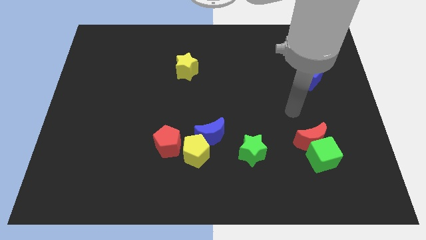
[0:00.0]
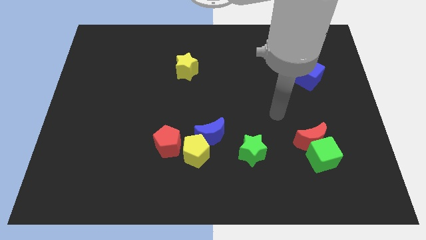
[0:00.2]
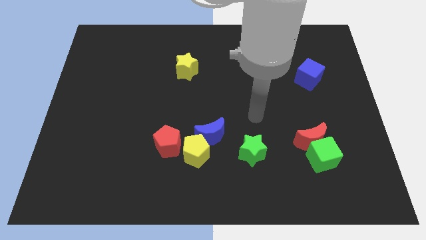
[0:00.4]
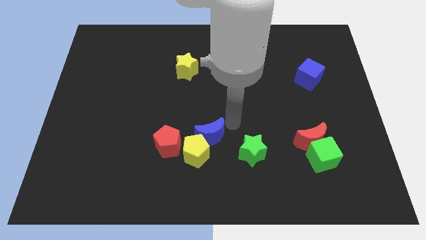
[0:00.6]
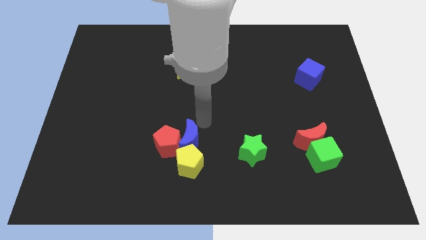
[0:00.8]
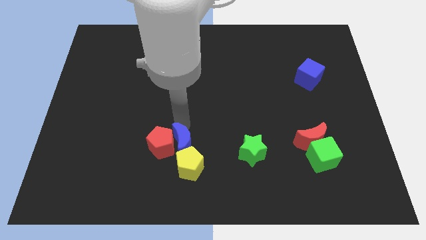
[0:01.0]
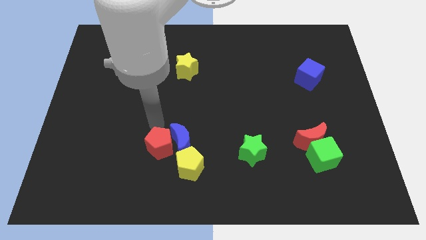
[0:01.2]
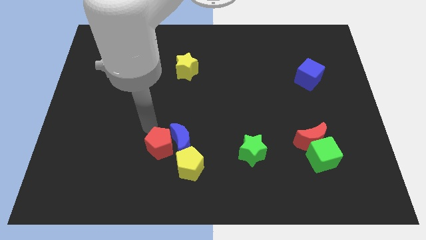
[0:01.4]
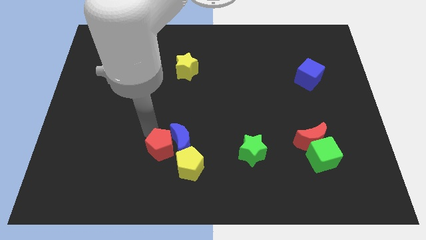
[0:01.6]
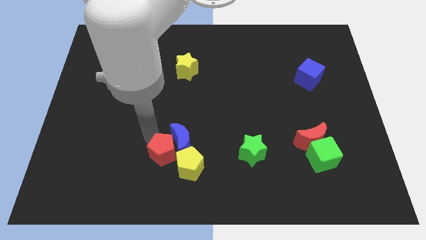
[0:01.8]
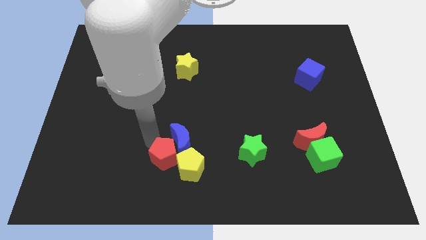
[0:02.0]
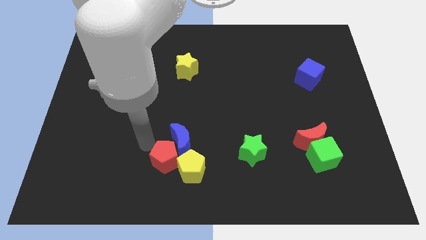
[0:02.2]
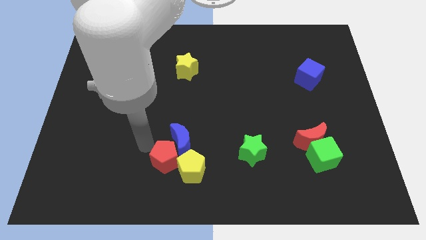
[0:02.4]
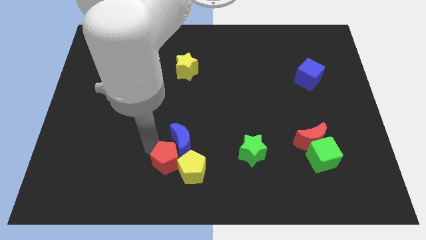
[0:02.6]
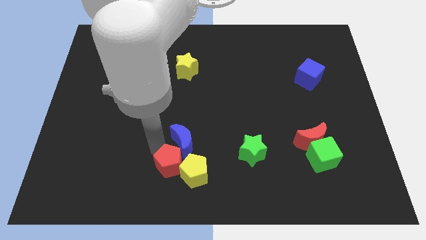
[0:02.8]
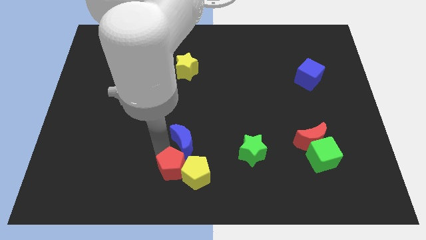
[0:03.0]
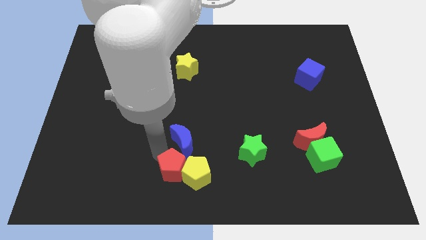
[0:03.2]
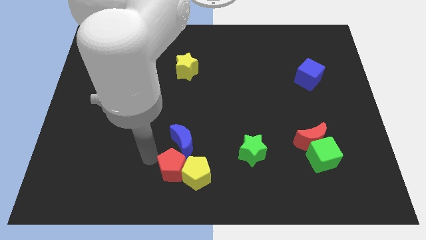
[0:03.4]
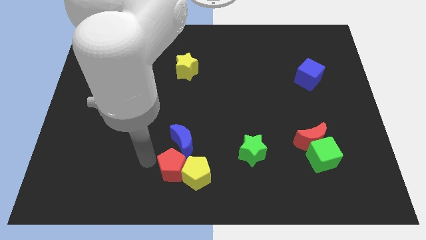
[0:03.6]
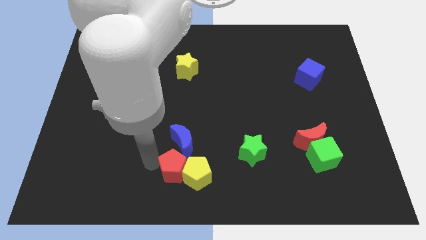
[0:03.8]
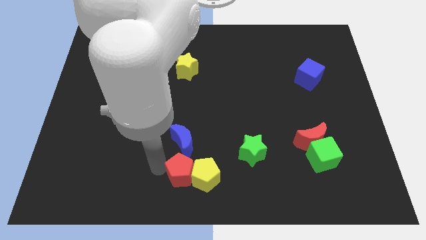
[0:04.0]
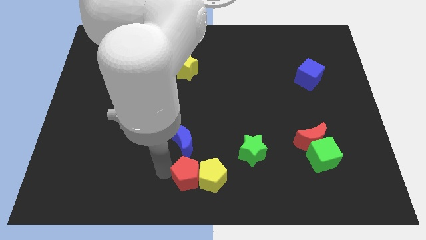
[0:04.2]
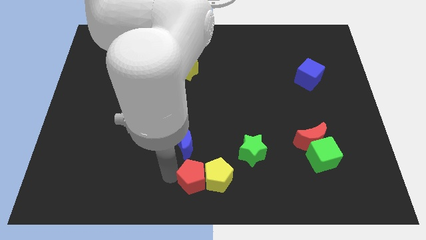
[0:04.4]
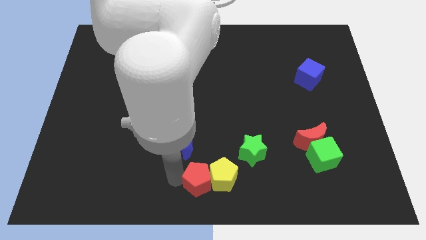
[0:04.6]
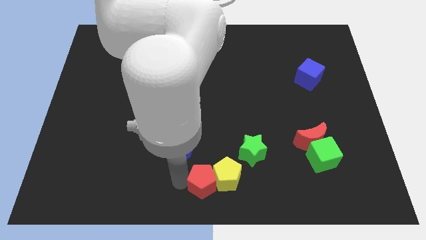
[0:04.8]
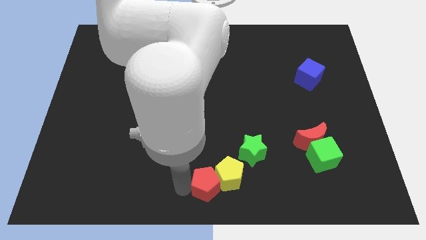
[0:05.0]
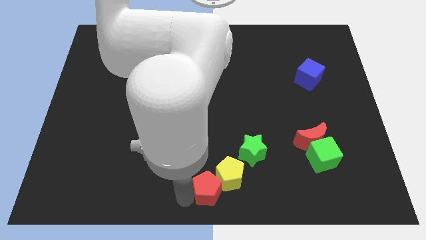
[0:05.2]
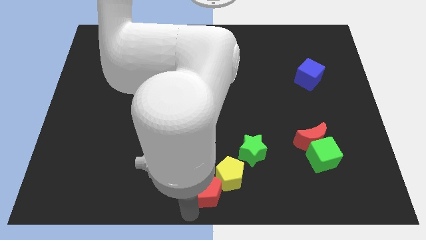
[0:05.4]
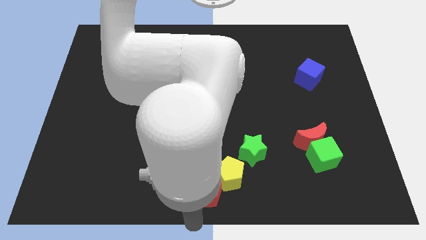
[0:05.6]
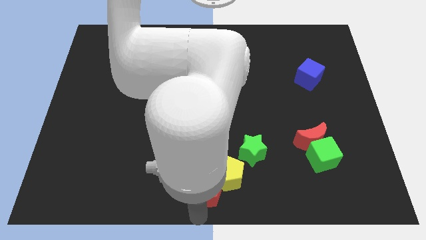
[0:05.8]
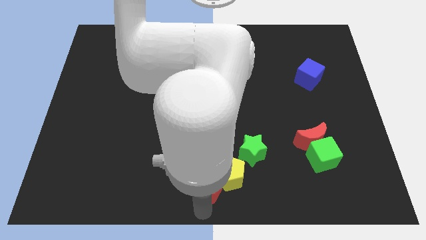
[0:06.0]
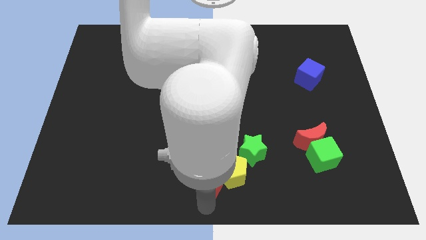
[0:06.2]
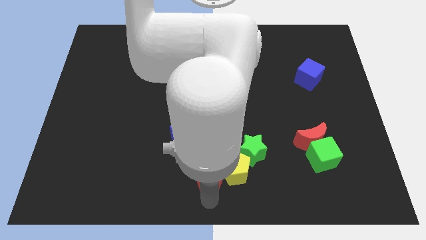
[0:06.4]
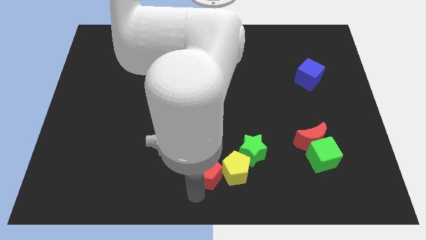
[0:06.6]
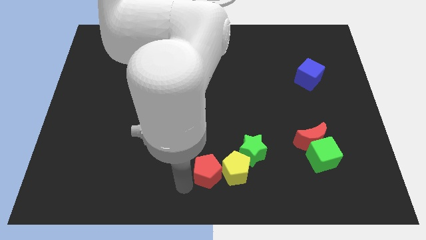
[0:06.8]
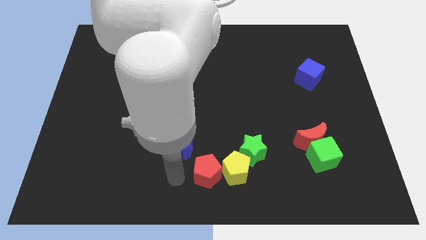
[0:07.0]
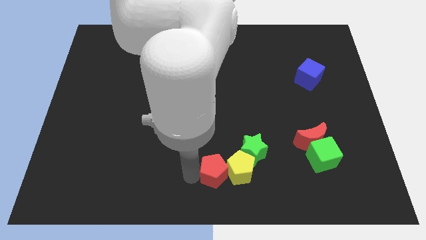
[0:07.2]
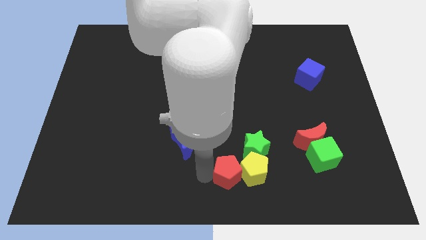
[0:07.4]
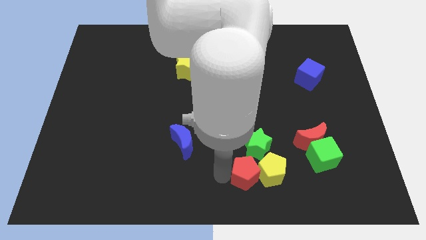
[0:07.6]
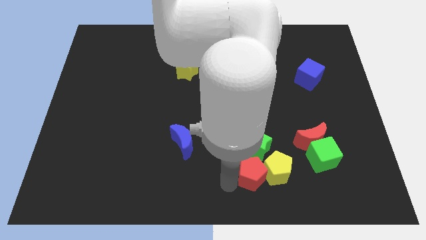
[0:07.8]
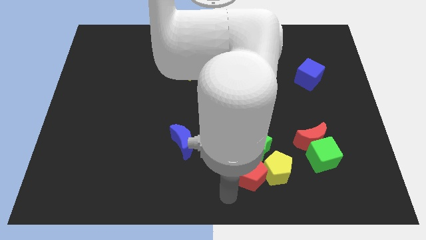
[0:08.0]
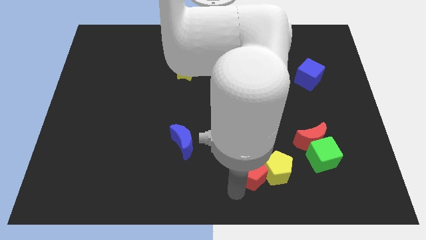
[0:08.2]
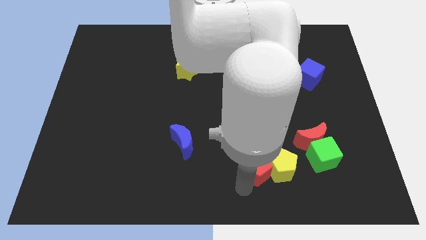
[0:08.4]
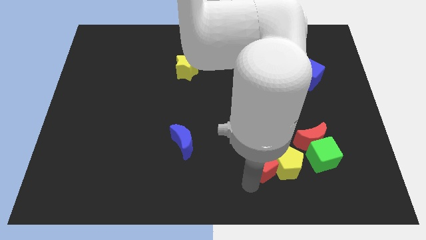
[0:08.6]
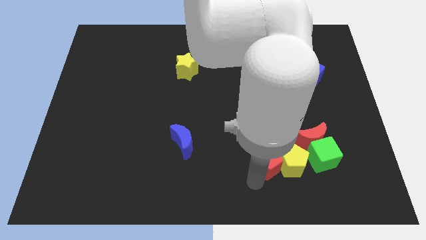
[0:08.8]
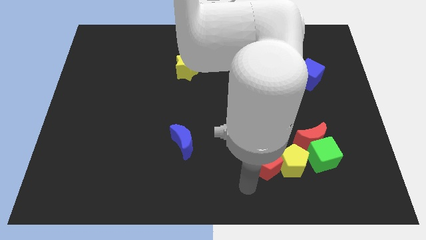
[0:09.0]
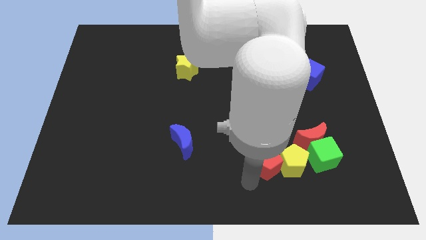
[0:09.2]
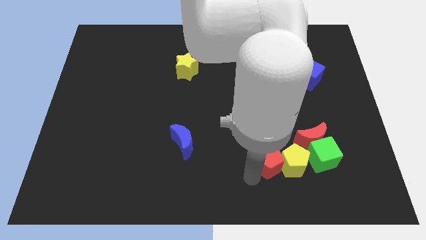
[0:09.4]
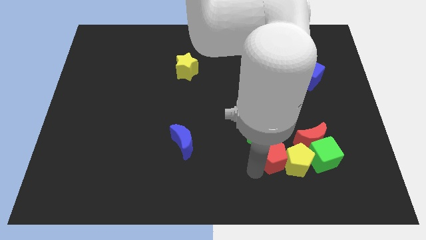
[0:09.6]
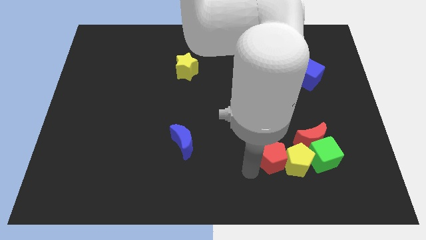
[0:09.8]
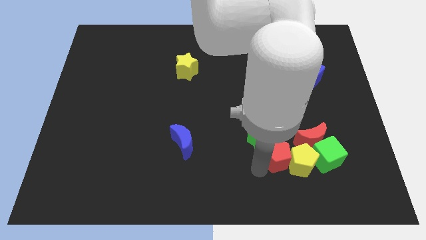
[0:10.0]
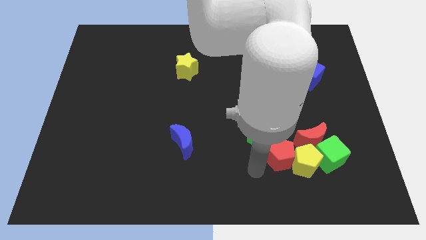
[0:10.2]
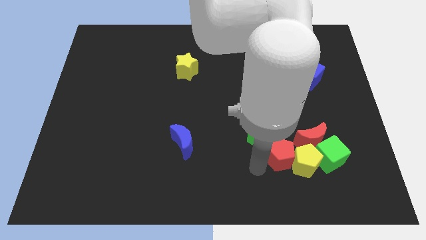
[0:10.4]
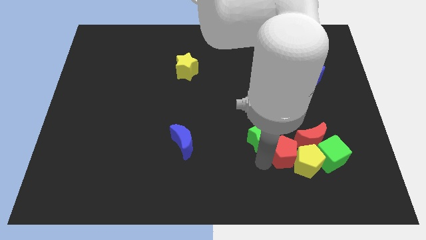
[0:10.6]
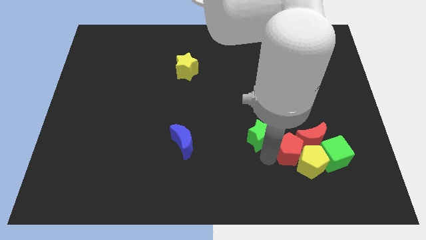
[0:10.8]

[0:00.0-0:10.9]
move the red pentagon to the red moon

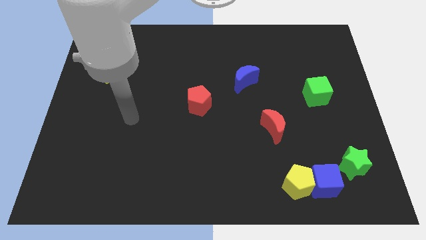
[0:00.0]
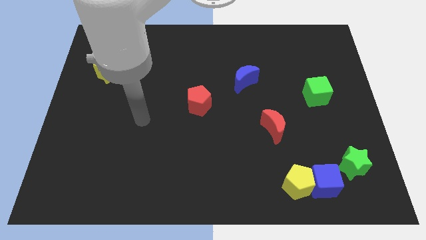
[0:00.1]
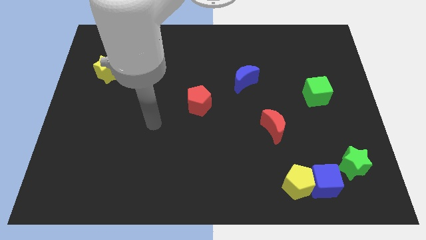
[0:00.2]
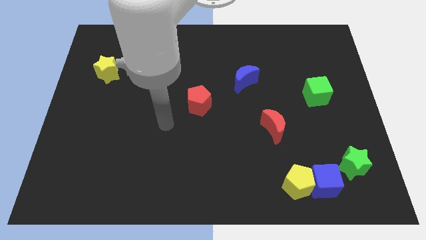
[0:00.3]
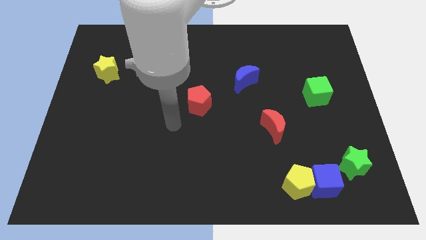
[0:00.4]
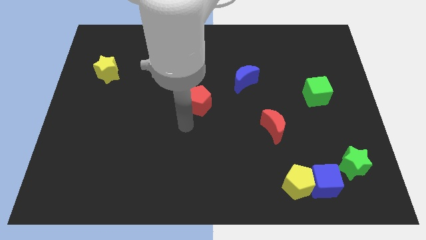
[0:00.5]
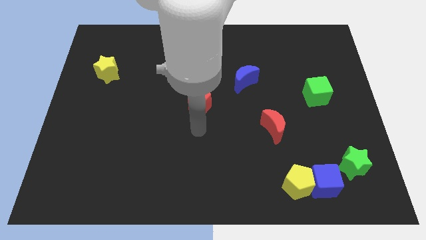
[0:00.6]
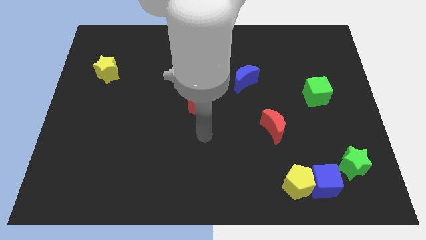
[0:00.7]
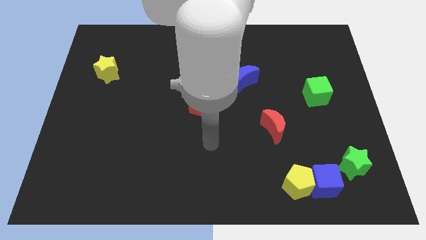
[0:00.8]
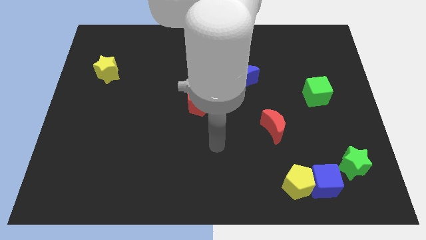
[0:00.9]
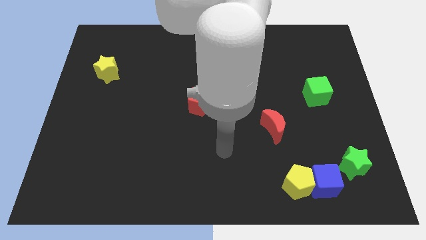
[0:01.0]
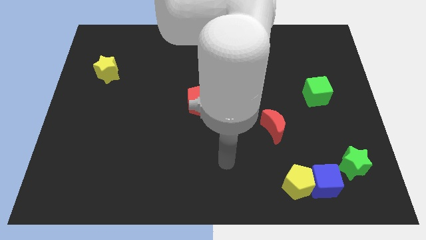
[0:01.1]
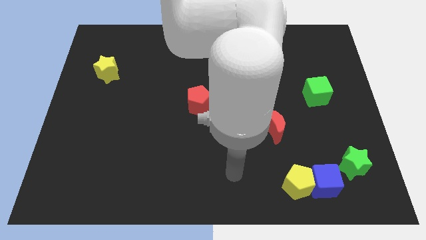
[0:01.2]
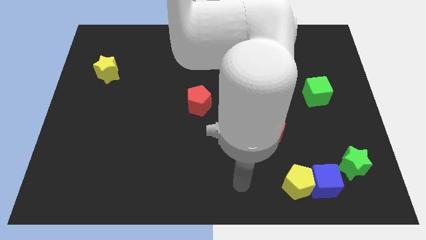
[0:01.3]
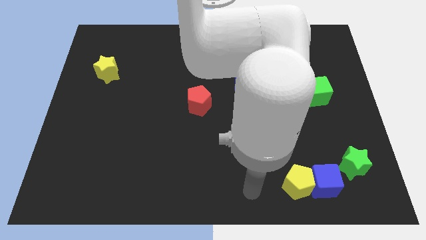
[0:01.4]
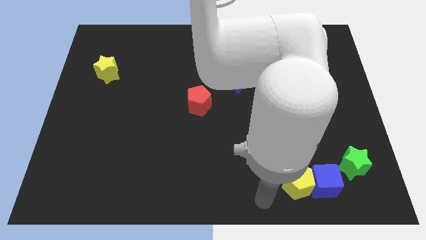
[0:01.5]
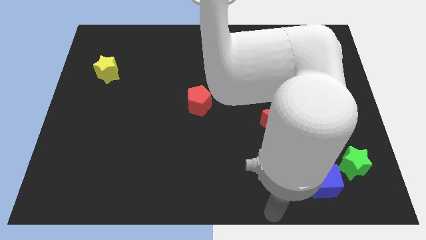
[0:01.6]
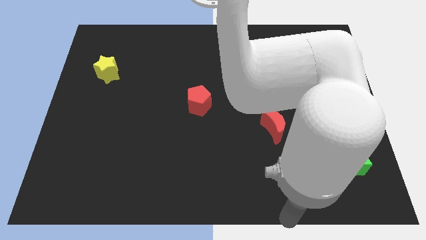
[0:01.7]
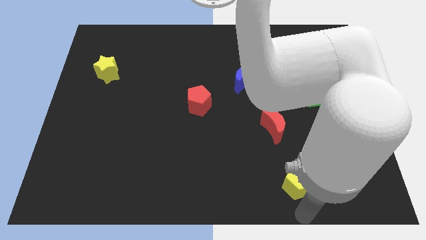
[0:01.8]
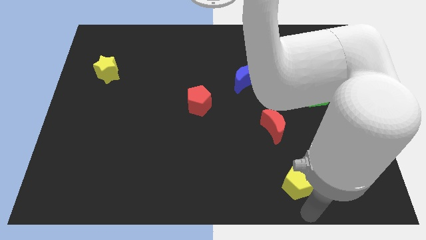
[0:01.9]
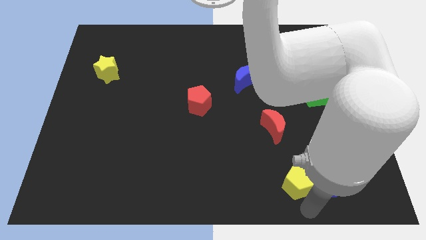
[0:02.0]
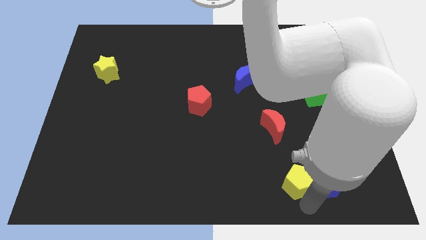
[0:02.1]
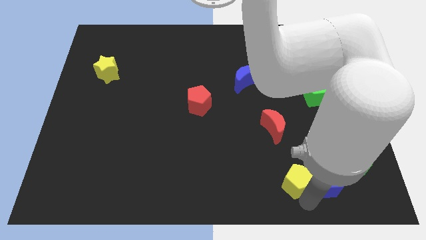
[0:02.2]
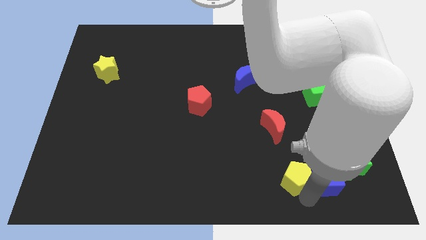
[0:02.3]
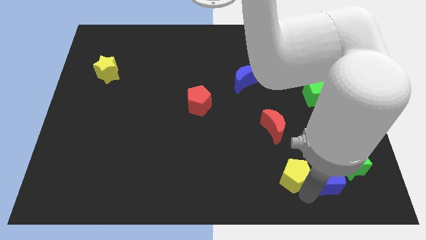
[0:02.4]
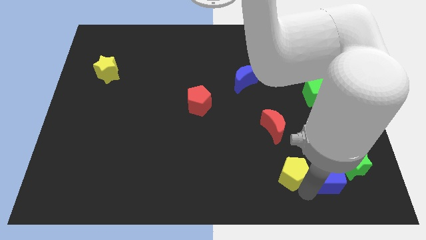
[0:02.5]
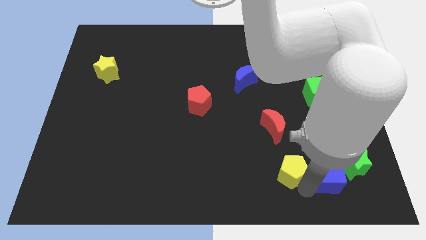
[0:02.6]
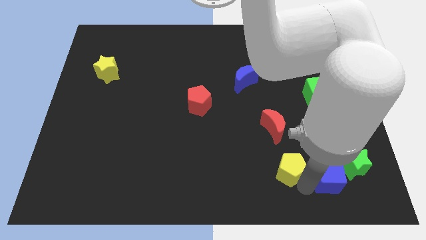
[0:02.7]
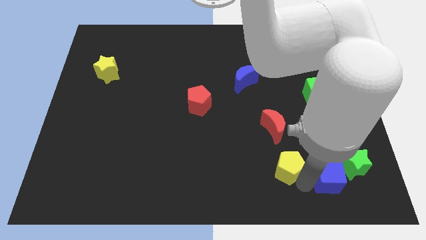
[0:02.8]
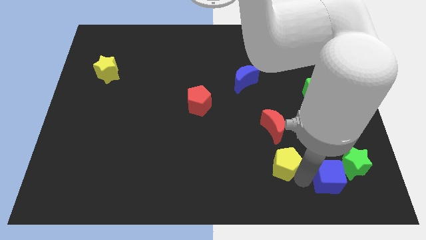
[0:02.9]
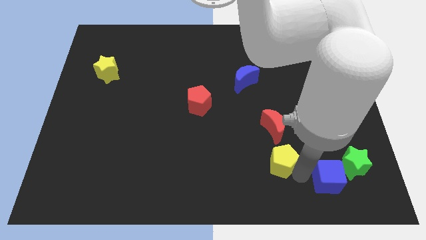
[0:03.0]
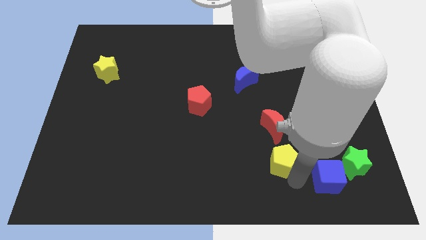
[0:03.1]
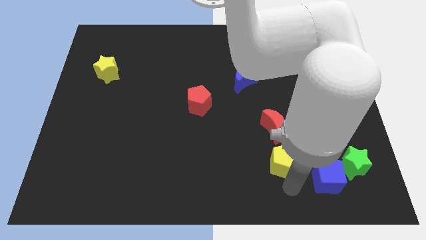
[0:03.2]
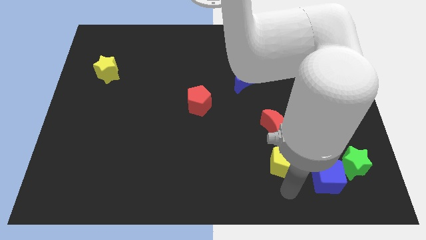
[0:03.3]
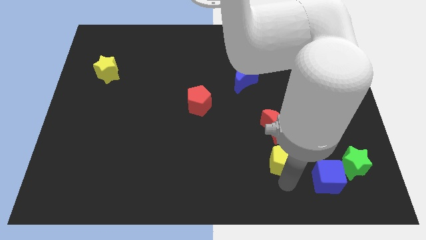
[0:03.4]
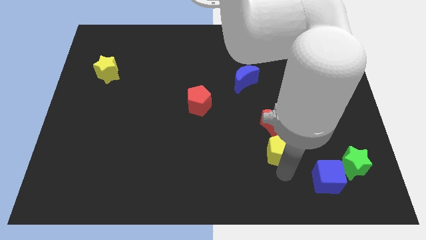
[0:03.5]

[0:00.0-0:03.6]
push the yellow pentagon towards the red moon
